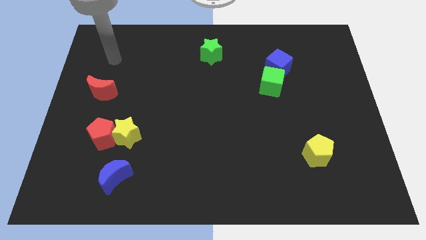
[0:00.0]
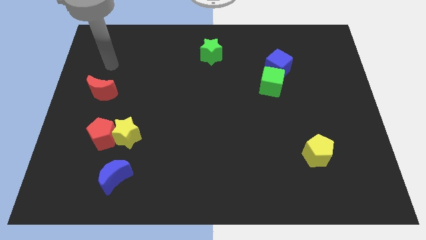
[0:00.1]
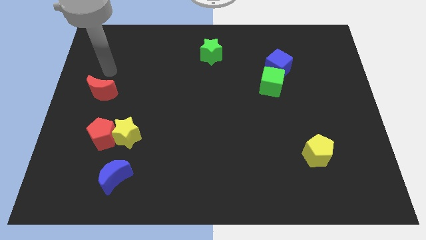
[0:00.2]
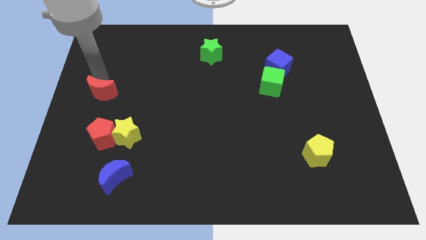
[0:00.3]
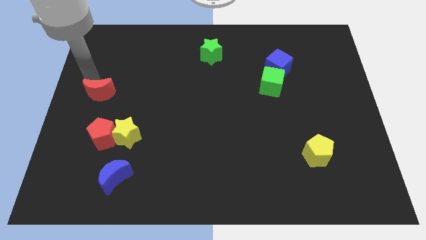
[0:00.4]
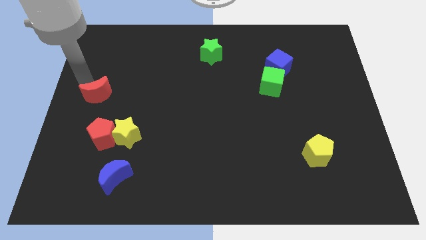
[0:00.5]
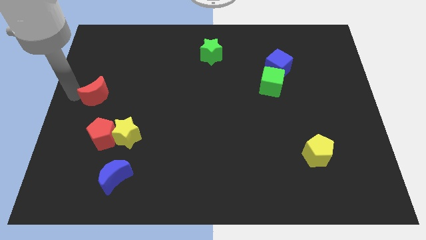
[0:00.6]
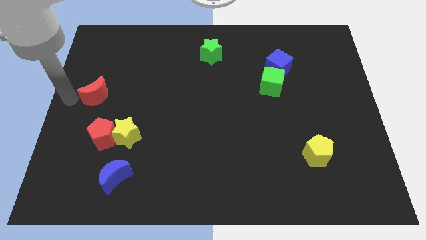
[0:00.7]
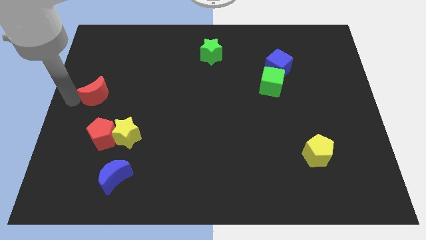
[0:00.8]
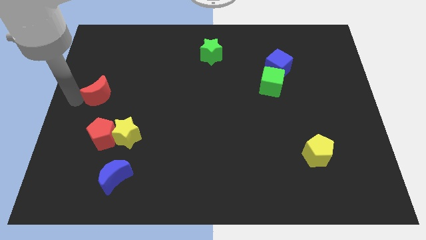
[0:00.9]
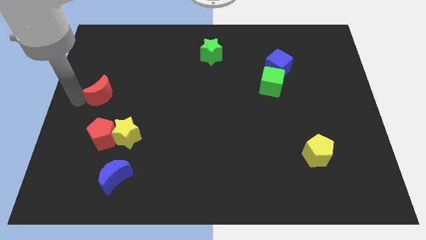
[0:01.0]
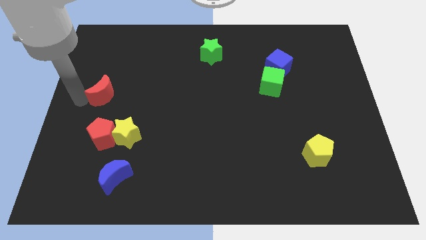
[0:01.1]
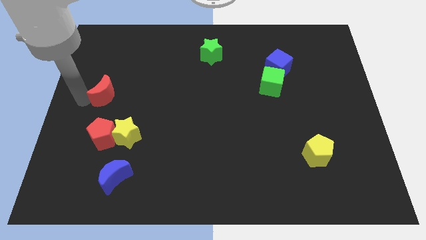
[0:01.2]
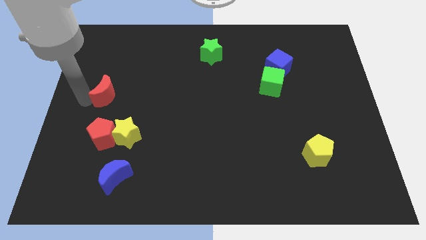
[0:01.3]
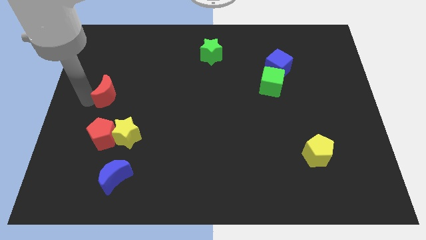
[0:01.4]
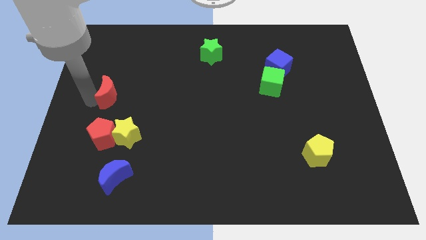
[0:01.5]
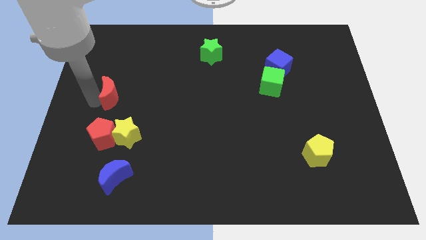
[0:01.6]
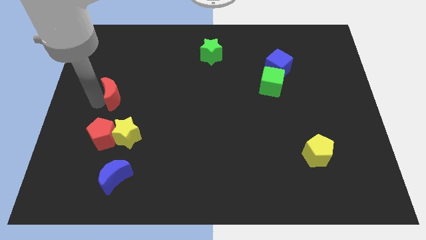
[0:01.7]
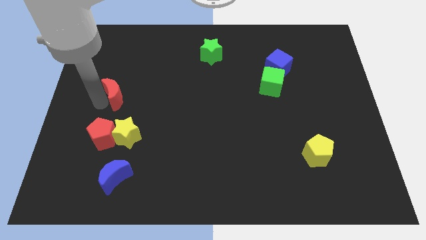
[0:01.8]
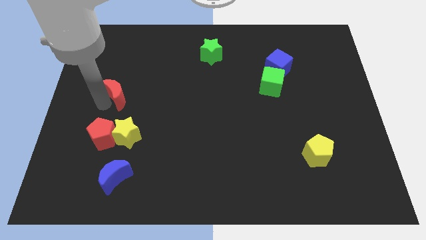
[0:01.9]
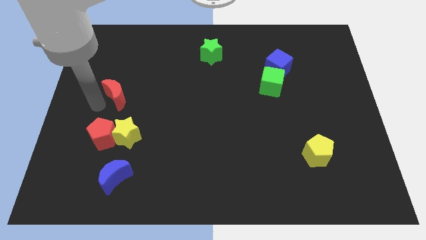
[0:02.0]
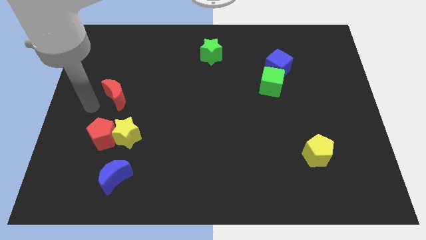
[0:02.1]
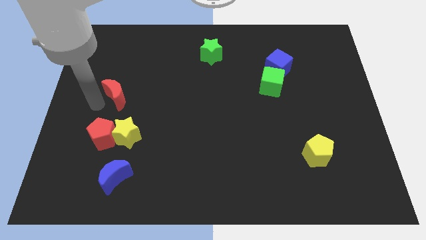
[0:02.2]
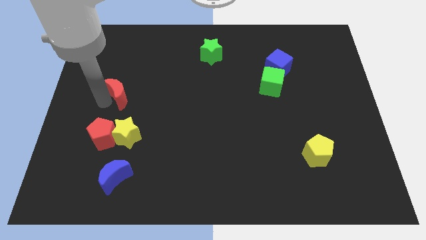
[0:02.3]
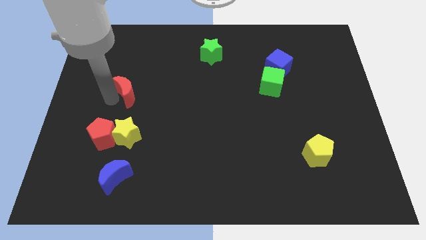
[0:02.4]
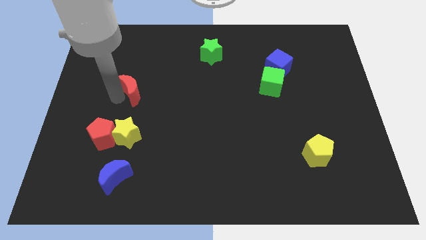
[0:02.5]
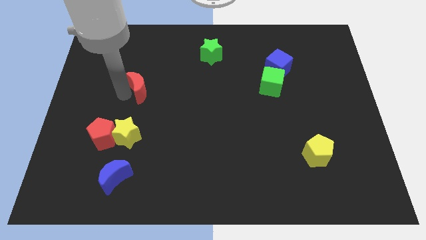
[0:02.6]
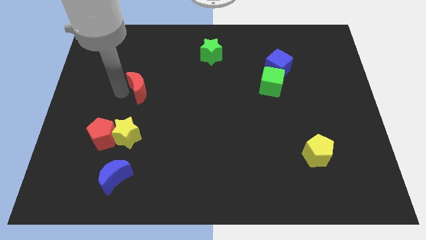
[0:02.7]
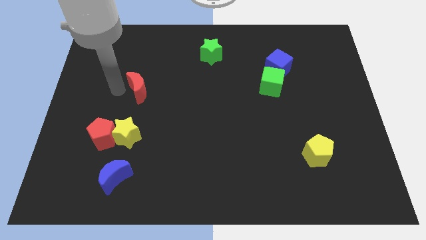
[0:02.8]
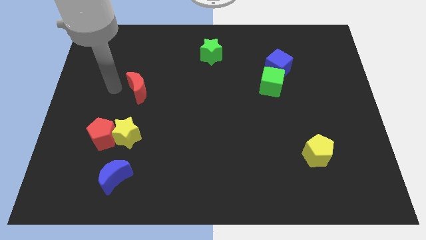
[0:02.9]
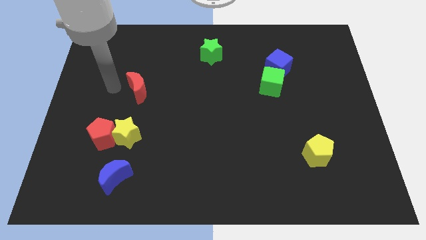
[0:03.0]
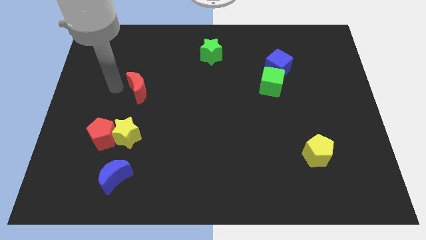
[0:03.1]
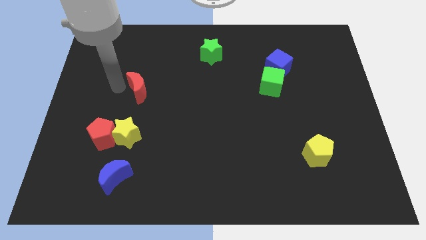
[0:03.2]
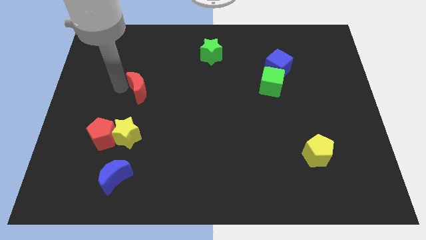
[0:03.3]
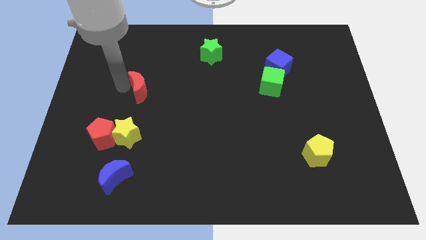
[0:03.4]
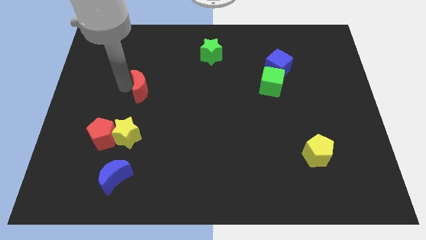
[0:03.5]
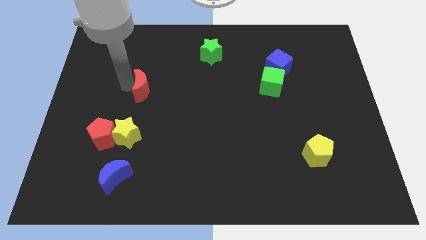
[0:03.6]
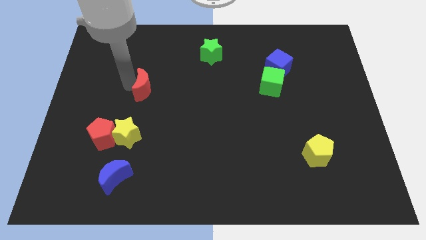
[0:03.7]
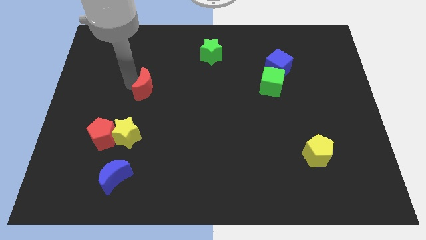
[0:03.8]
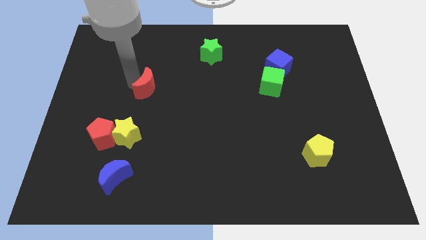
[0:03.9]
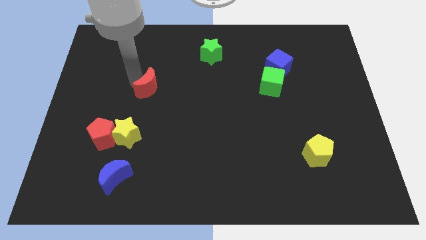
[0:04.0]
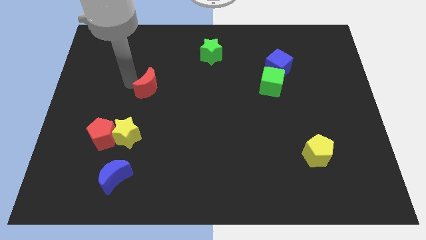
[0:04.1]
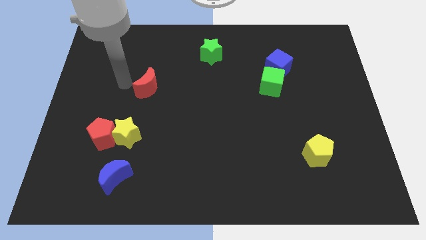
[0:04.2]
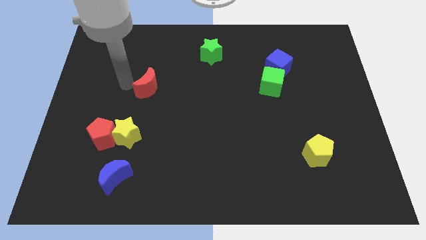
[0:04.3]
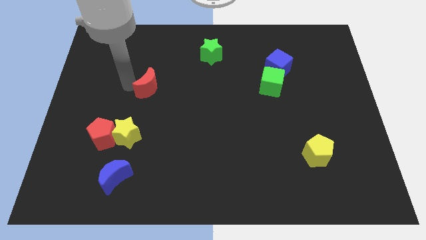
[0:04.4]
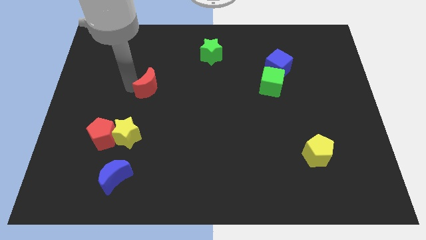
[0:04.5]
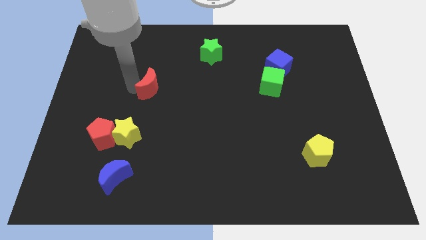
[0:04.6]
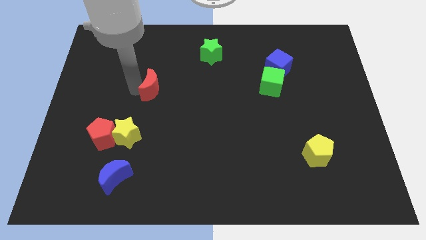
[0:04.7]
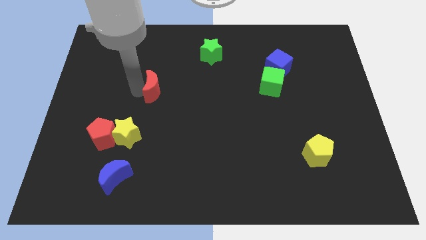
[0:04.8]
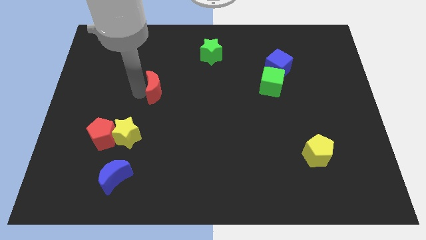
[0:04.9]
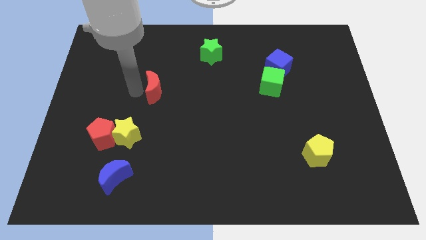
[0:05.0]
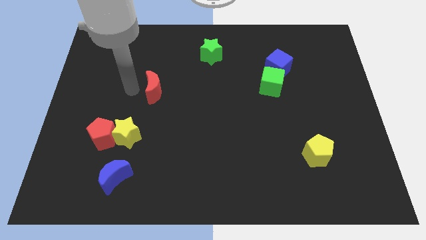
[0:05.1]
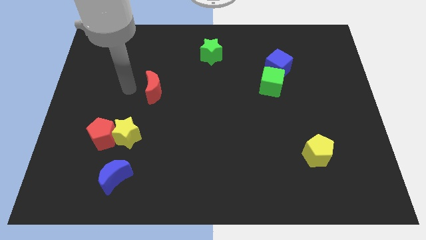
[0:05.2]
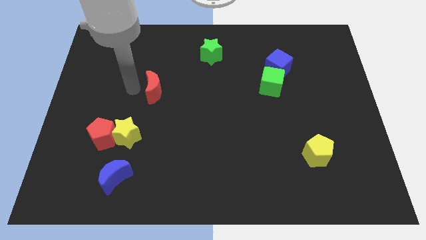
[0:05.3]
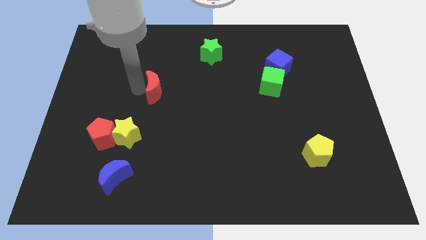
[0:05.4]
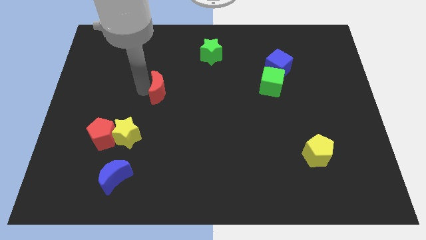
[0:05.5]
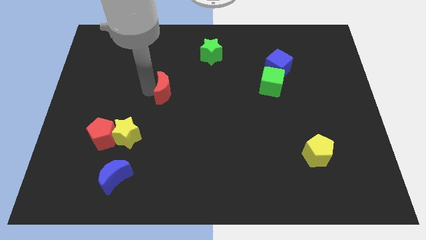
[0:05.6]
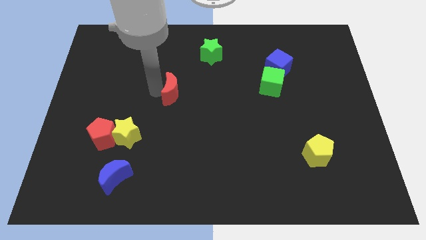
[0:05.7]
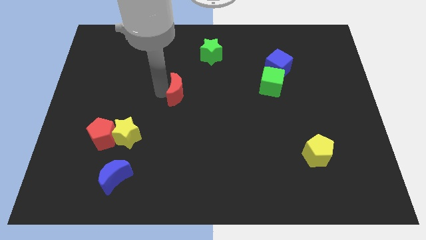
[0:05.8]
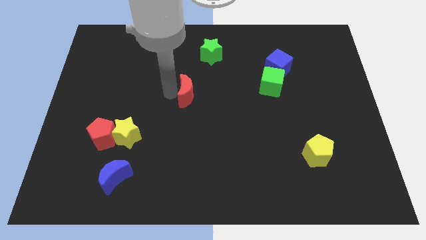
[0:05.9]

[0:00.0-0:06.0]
slide the red moon to the right

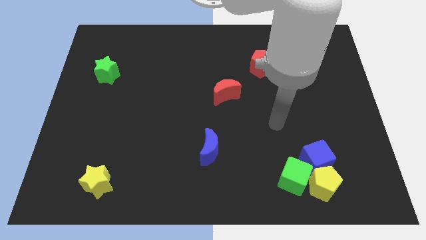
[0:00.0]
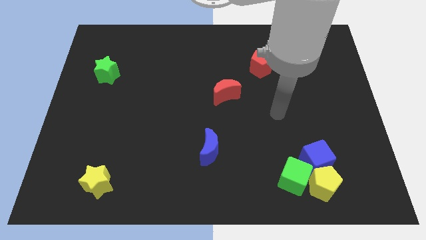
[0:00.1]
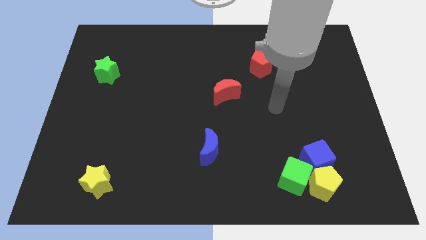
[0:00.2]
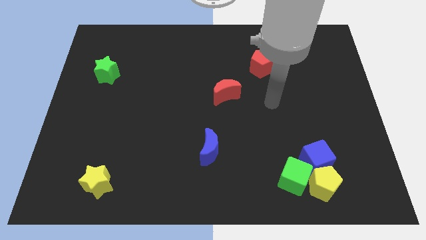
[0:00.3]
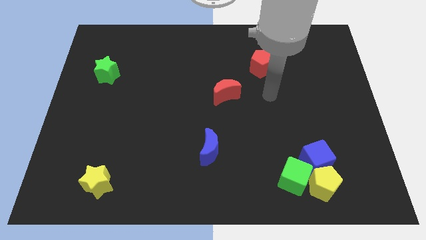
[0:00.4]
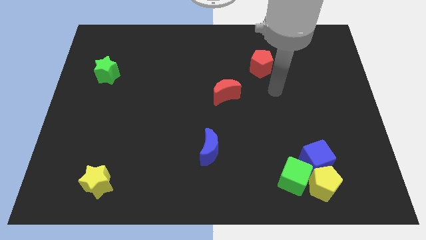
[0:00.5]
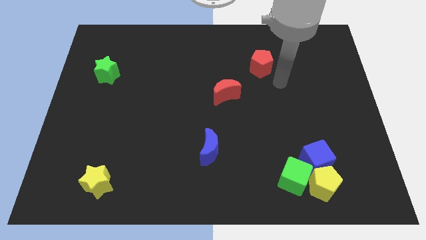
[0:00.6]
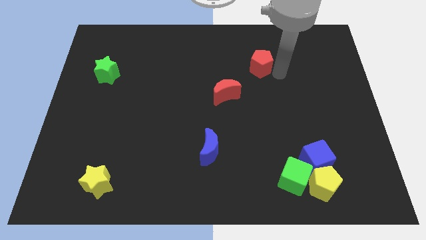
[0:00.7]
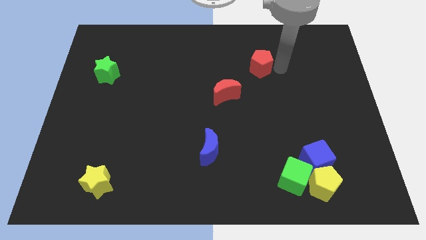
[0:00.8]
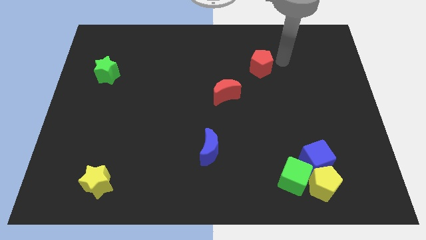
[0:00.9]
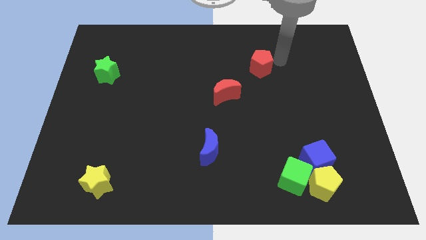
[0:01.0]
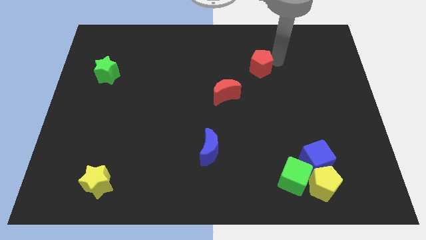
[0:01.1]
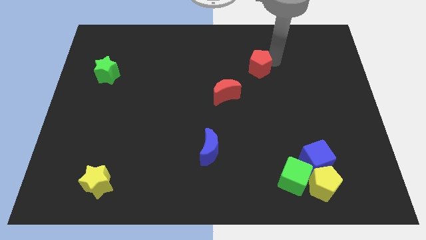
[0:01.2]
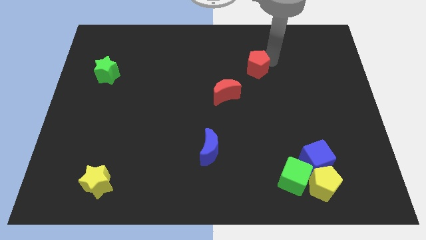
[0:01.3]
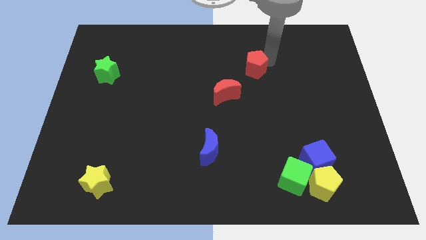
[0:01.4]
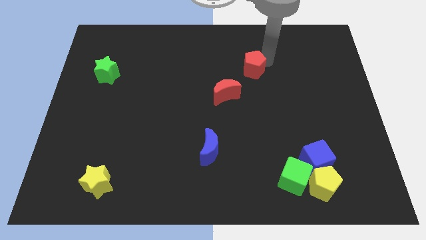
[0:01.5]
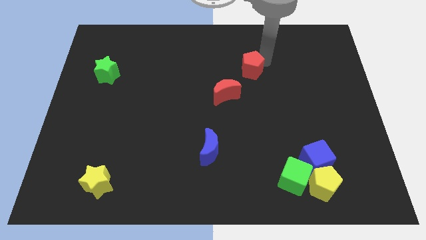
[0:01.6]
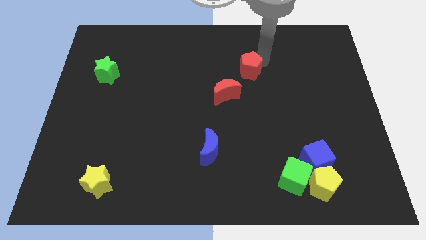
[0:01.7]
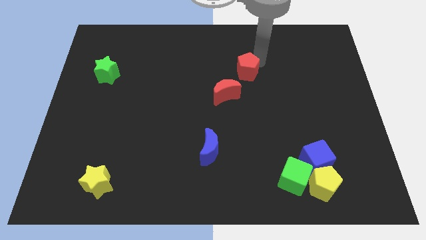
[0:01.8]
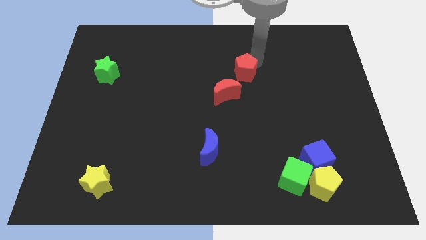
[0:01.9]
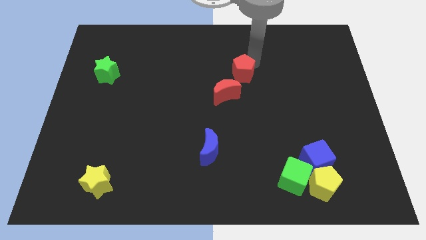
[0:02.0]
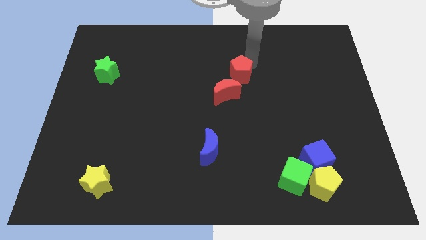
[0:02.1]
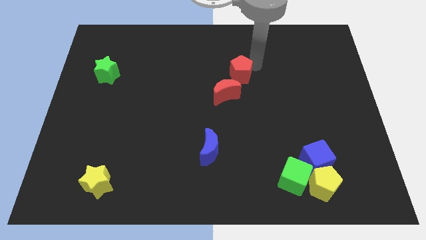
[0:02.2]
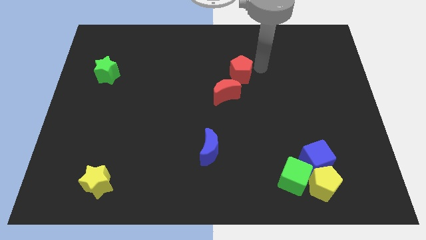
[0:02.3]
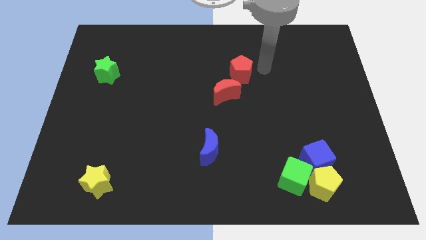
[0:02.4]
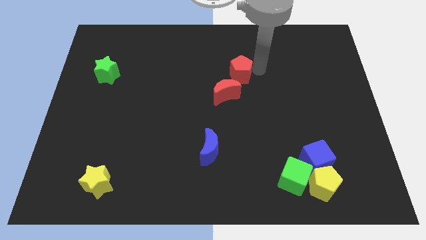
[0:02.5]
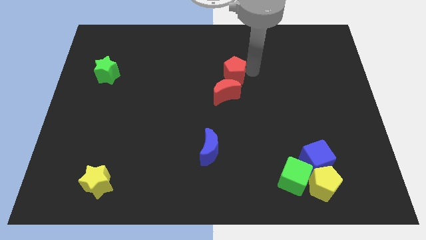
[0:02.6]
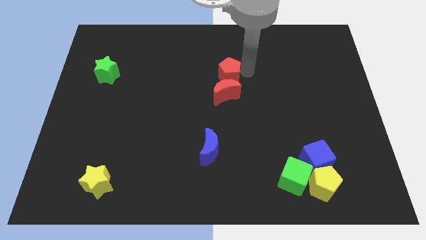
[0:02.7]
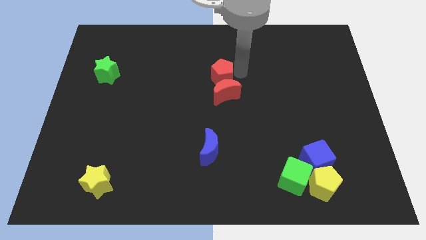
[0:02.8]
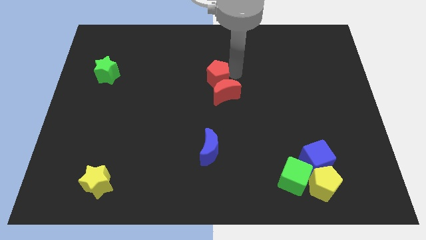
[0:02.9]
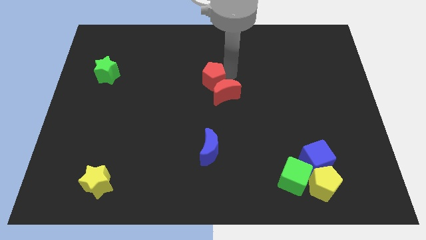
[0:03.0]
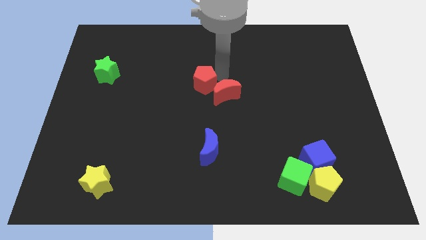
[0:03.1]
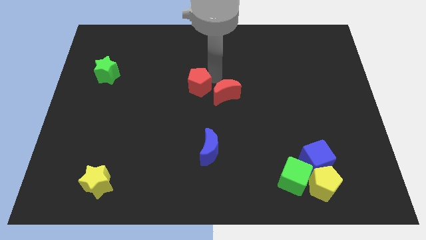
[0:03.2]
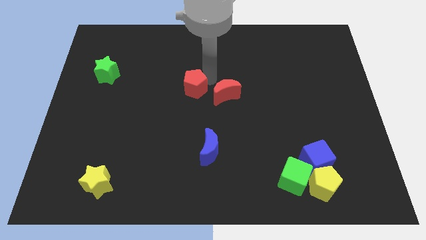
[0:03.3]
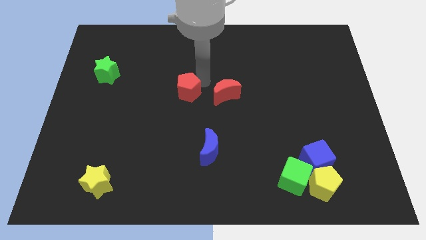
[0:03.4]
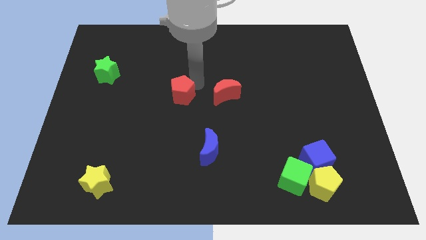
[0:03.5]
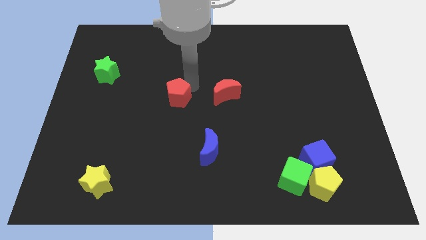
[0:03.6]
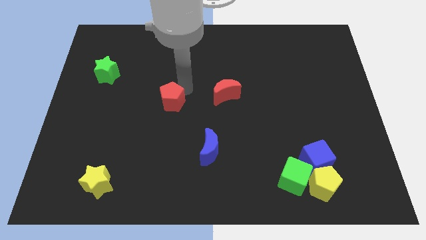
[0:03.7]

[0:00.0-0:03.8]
push the red pentagon downwards and to the left diagonally
